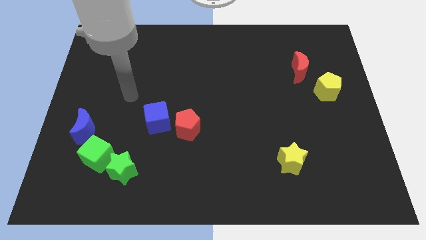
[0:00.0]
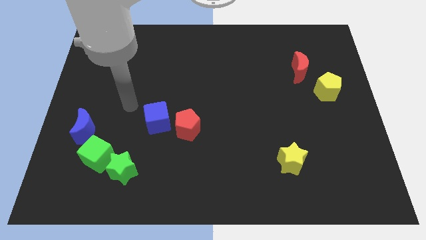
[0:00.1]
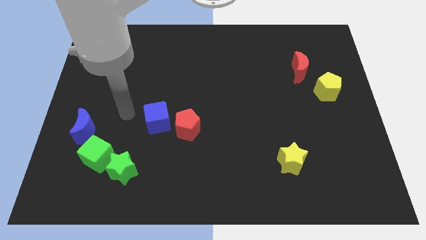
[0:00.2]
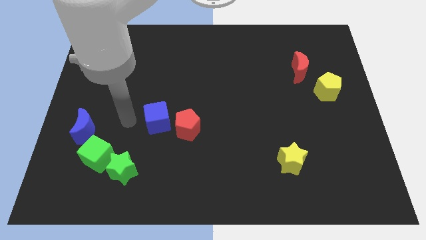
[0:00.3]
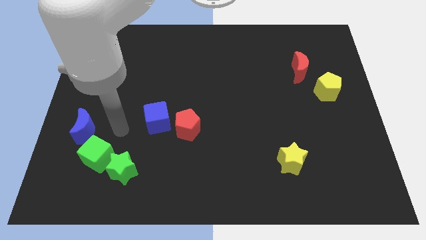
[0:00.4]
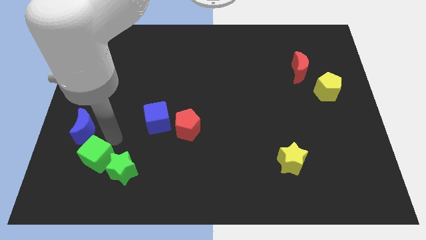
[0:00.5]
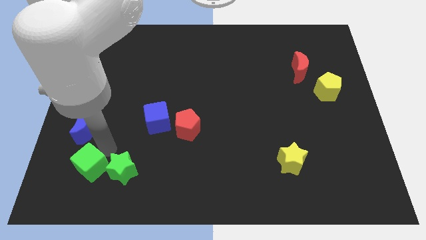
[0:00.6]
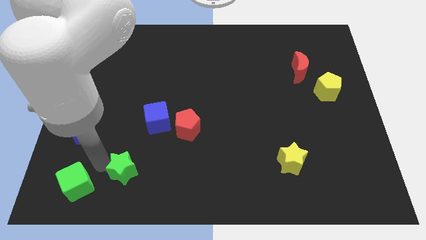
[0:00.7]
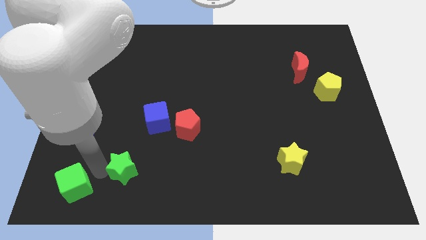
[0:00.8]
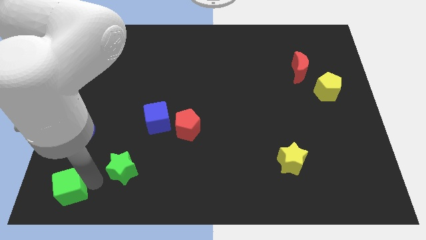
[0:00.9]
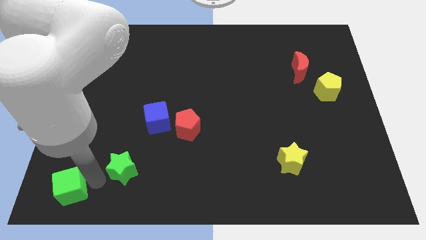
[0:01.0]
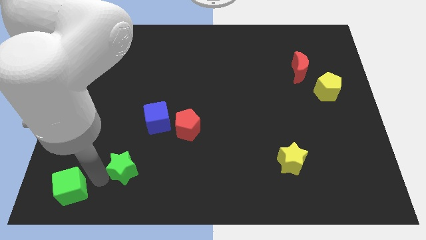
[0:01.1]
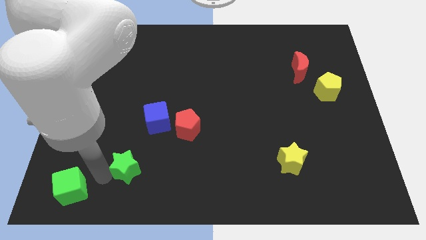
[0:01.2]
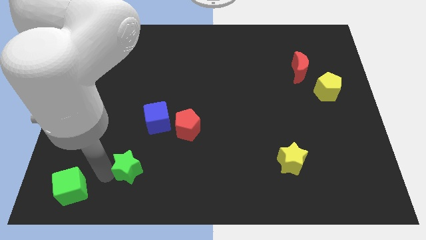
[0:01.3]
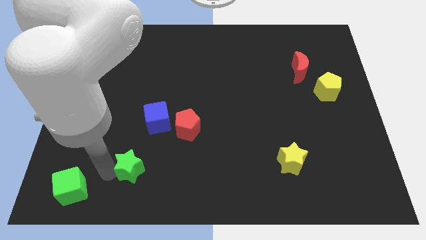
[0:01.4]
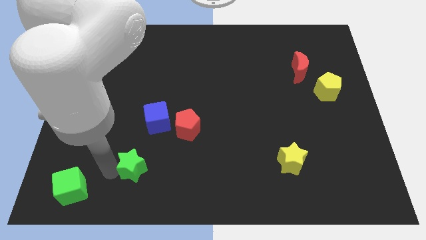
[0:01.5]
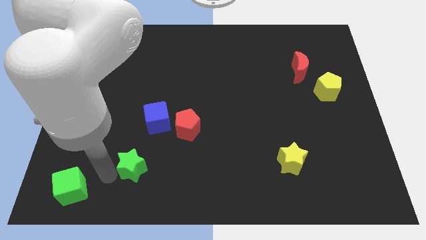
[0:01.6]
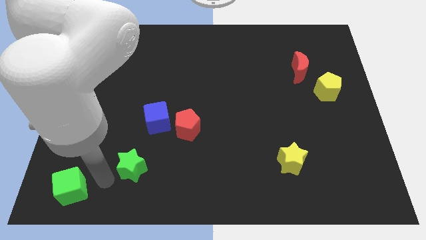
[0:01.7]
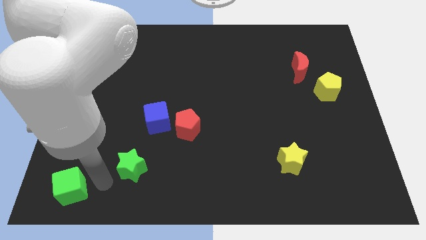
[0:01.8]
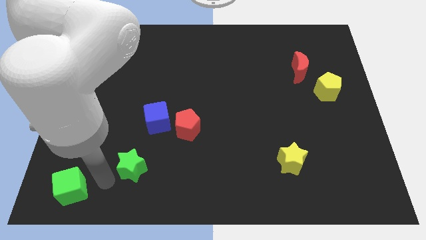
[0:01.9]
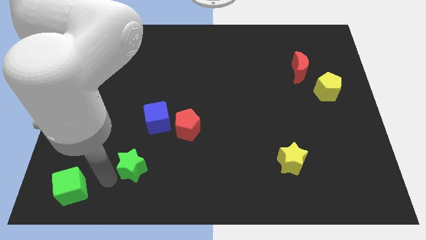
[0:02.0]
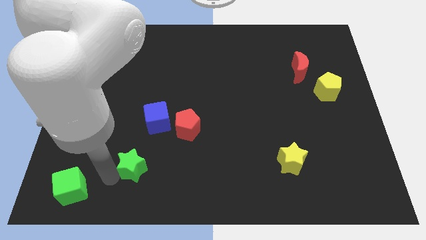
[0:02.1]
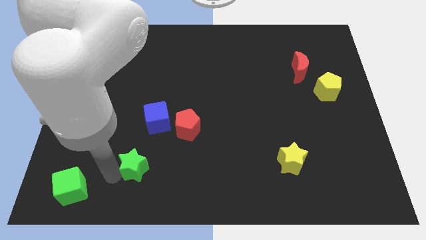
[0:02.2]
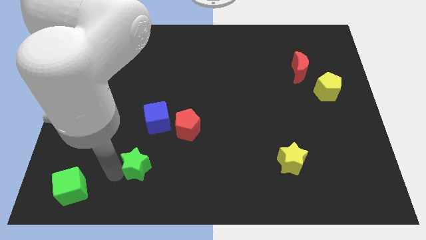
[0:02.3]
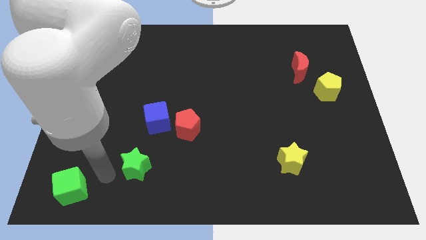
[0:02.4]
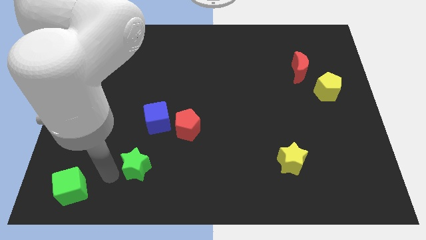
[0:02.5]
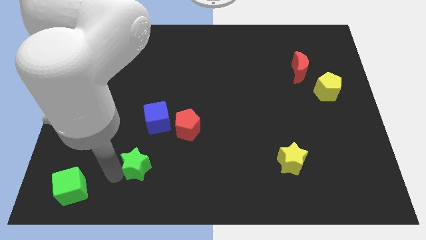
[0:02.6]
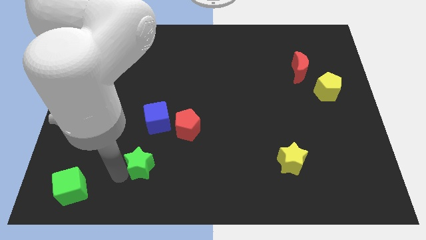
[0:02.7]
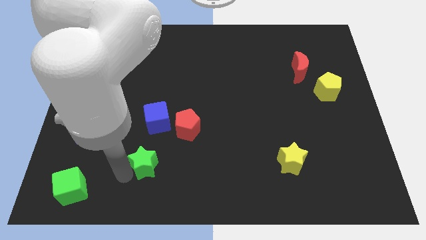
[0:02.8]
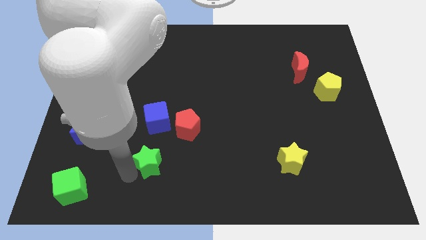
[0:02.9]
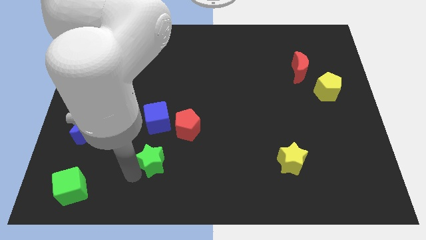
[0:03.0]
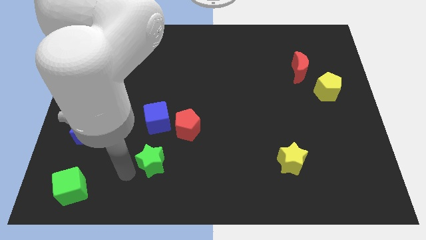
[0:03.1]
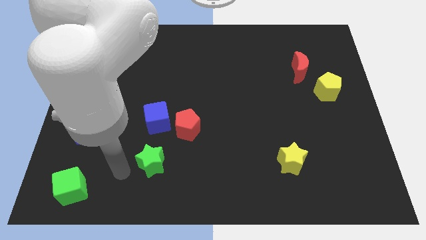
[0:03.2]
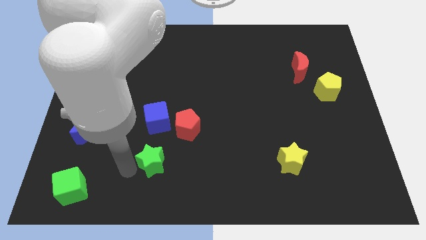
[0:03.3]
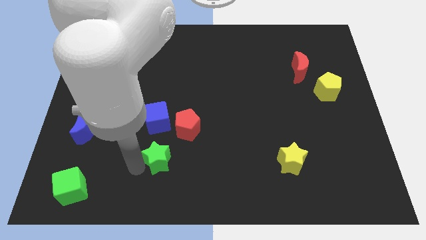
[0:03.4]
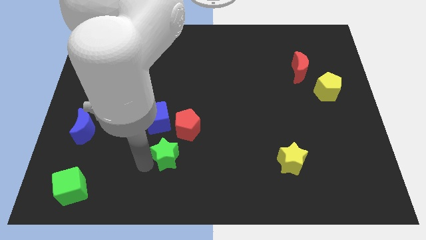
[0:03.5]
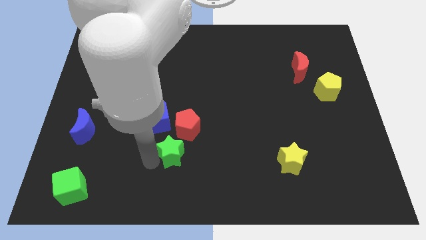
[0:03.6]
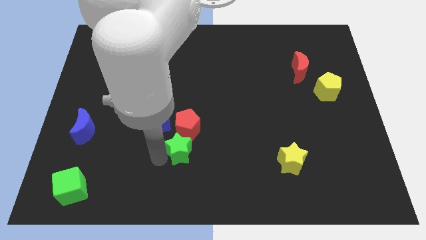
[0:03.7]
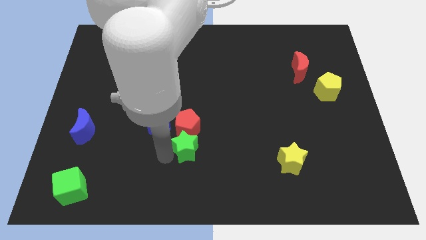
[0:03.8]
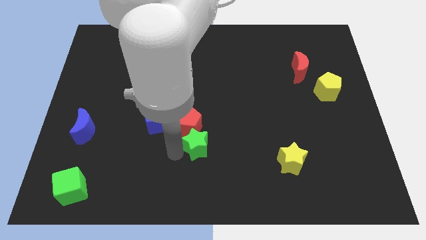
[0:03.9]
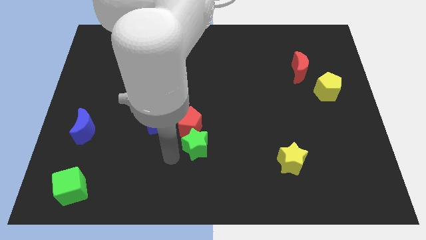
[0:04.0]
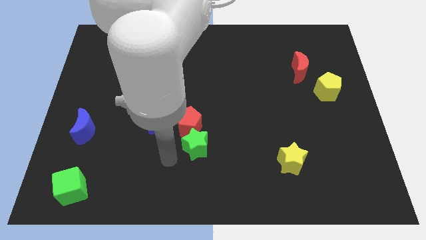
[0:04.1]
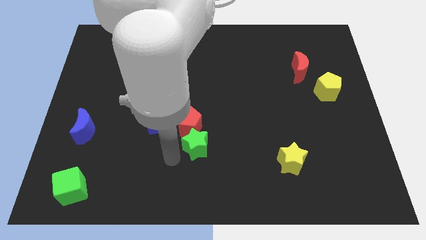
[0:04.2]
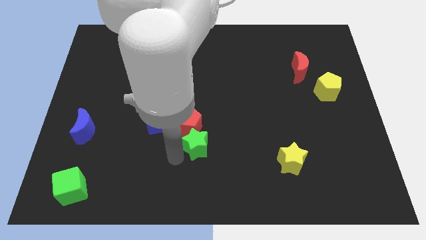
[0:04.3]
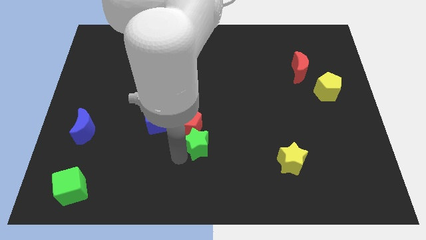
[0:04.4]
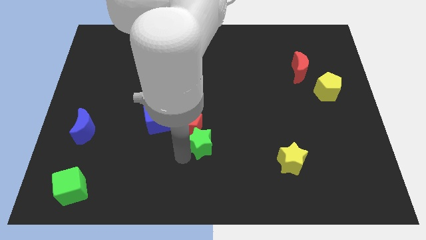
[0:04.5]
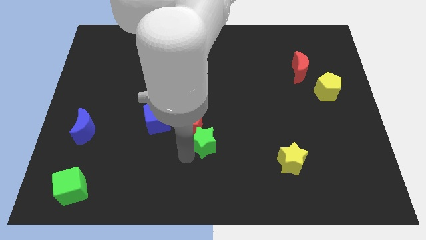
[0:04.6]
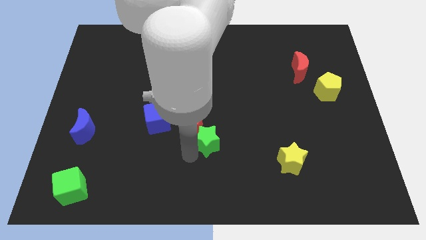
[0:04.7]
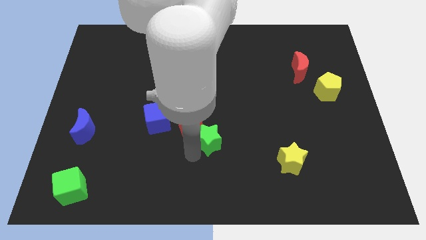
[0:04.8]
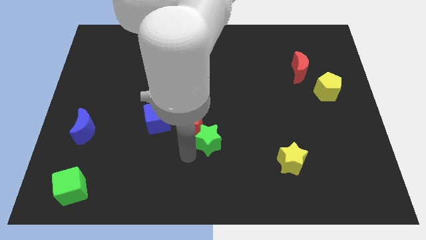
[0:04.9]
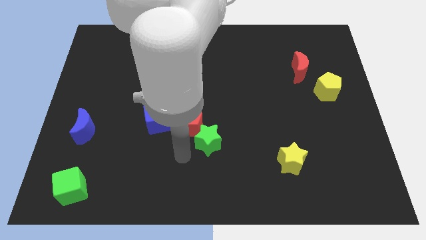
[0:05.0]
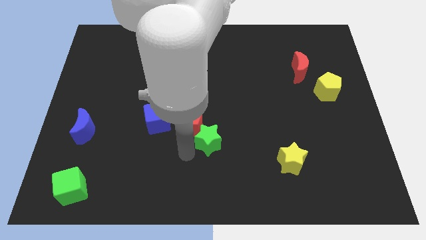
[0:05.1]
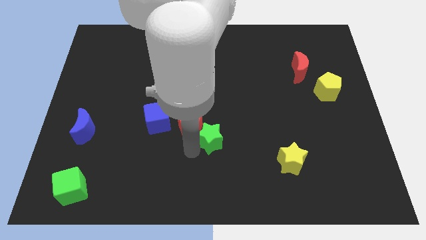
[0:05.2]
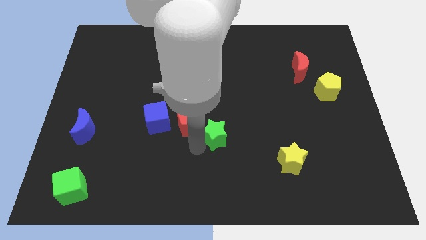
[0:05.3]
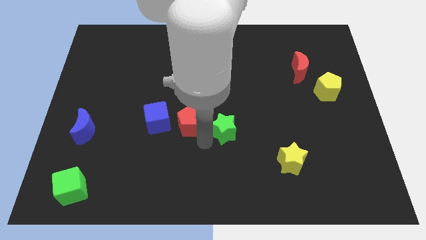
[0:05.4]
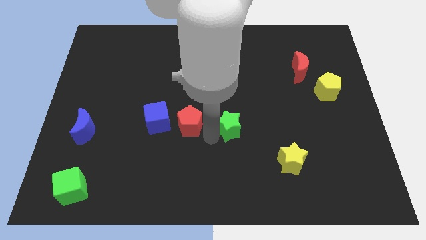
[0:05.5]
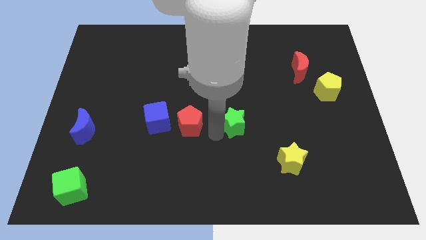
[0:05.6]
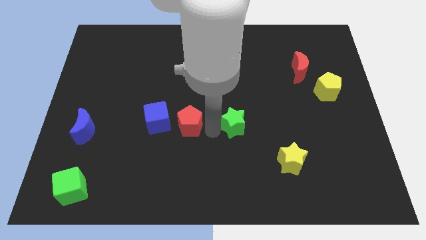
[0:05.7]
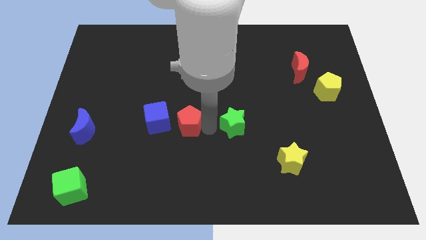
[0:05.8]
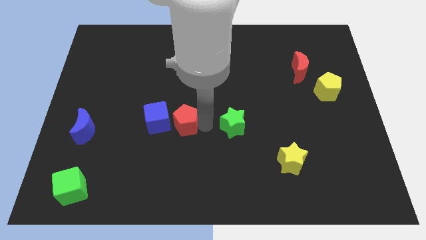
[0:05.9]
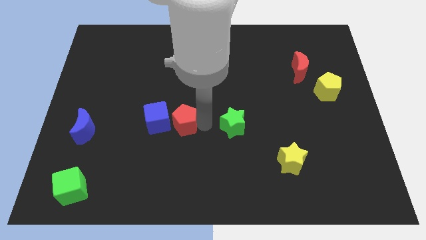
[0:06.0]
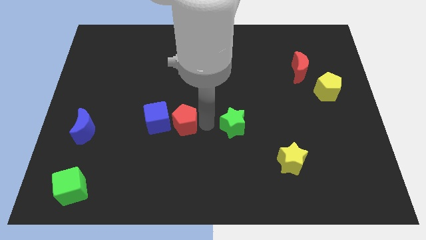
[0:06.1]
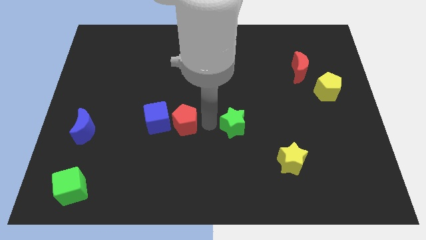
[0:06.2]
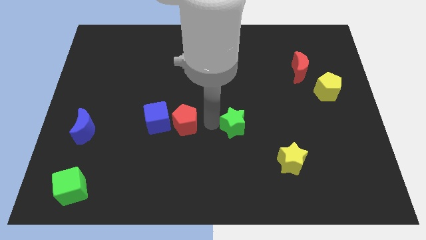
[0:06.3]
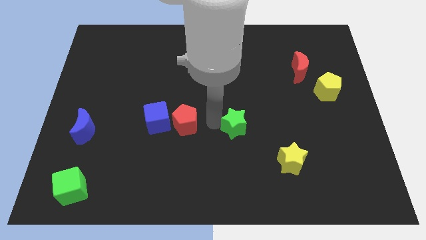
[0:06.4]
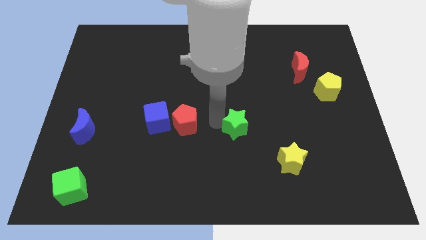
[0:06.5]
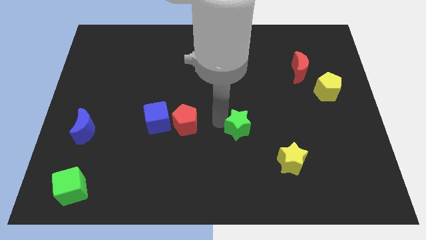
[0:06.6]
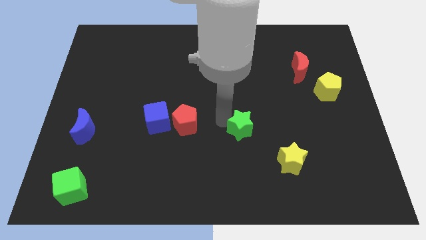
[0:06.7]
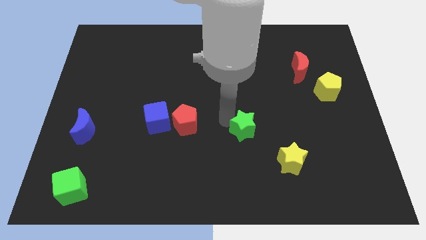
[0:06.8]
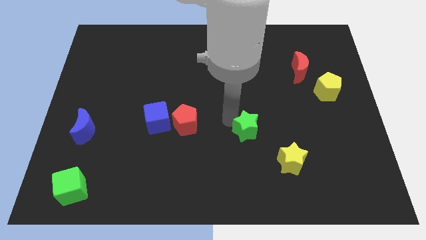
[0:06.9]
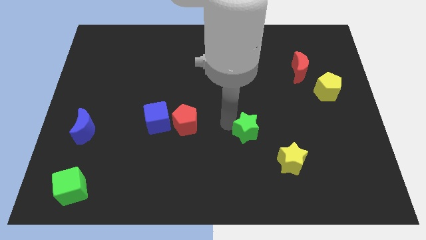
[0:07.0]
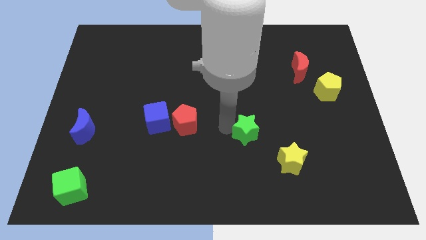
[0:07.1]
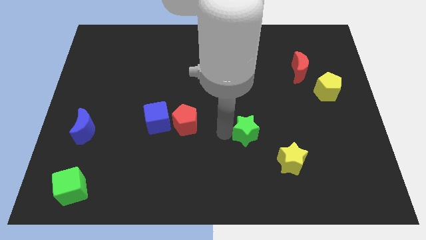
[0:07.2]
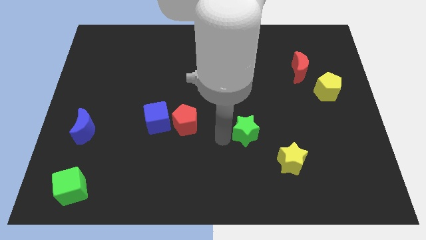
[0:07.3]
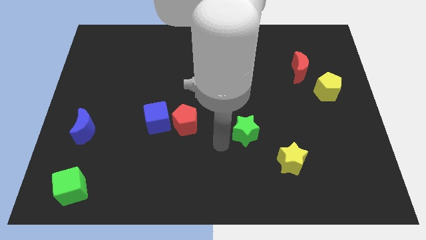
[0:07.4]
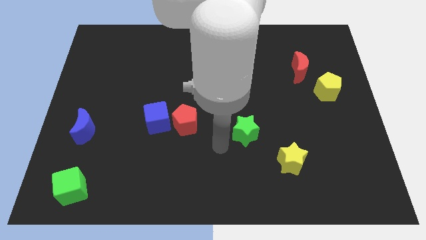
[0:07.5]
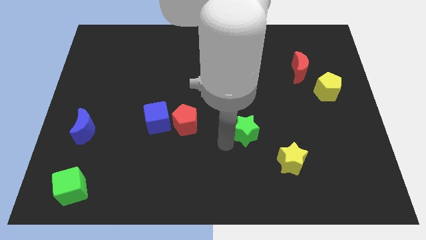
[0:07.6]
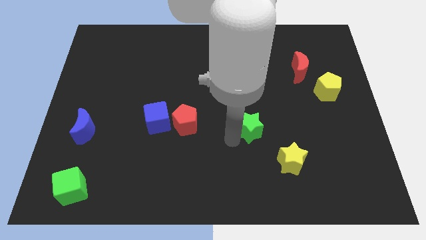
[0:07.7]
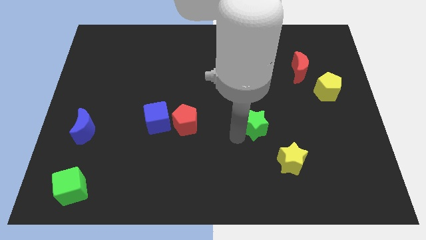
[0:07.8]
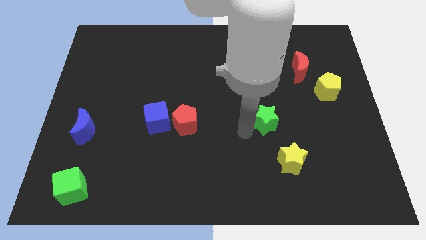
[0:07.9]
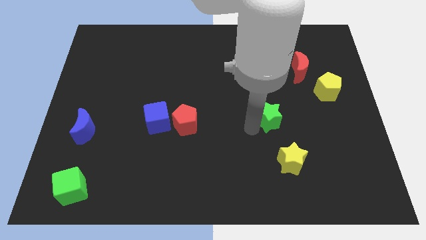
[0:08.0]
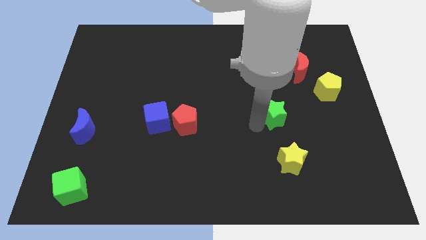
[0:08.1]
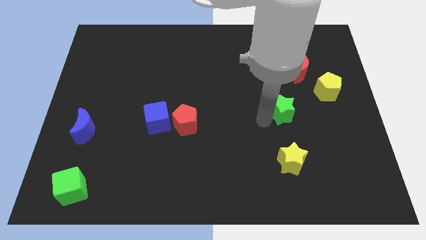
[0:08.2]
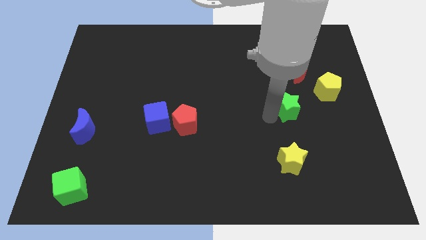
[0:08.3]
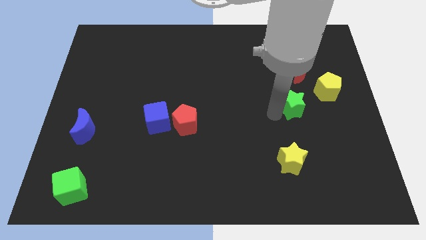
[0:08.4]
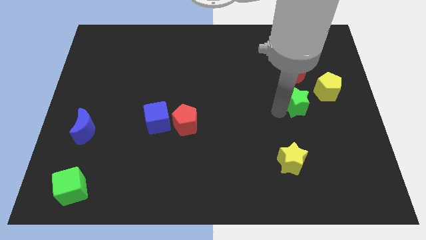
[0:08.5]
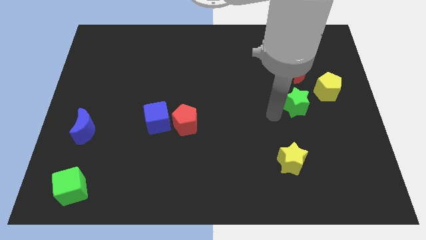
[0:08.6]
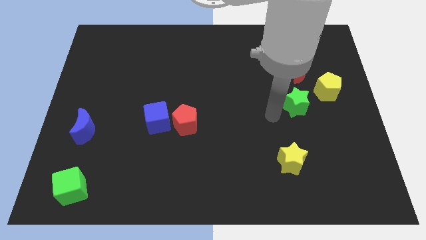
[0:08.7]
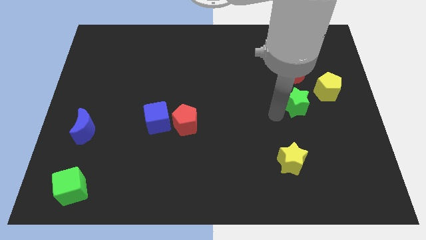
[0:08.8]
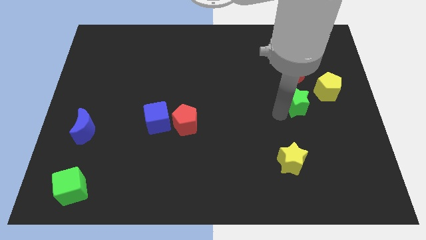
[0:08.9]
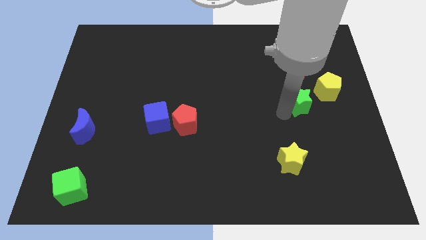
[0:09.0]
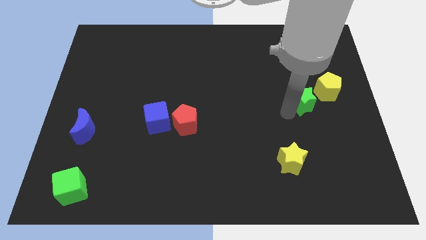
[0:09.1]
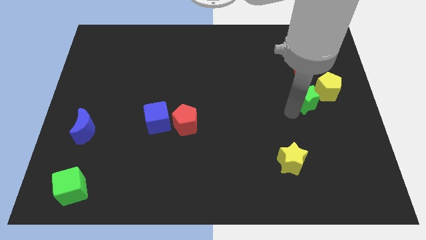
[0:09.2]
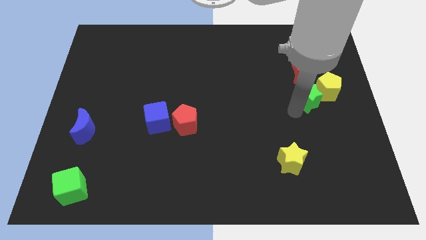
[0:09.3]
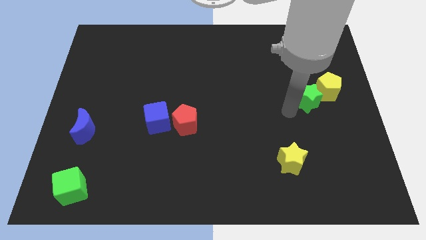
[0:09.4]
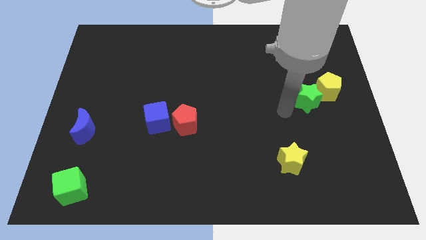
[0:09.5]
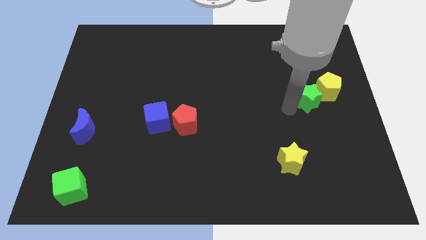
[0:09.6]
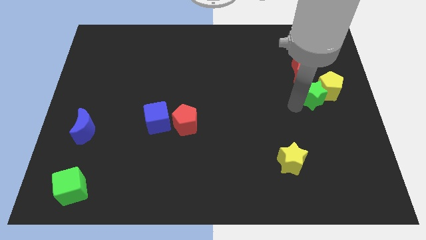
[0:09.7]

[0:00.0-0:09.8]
push the green star to the yellow pentagon
